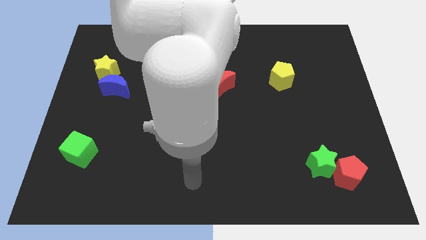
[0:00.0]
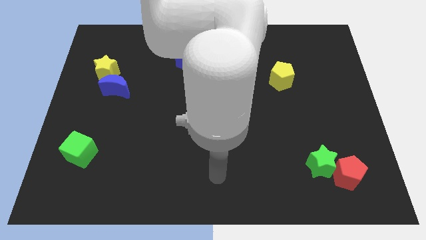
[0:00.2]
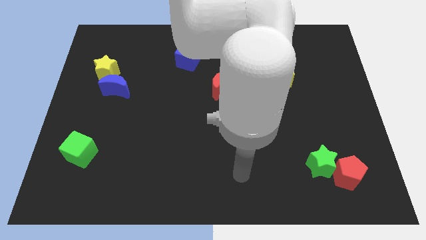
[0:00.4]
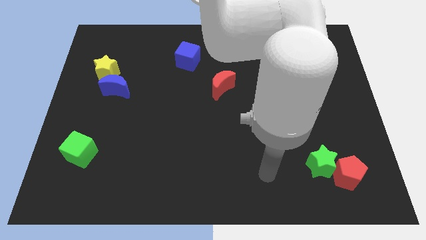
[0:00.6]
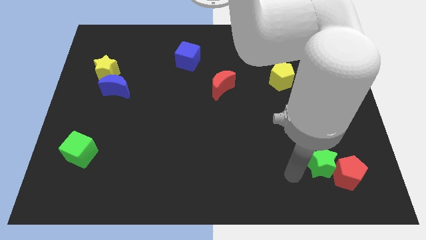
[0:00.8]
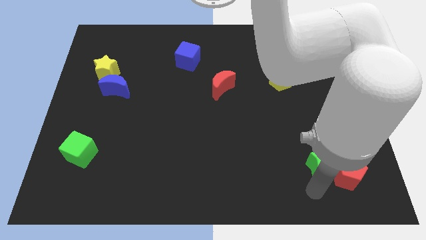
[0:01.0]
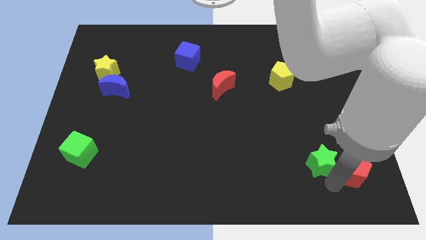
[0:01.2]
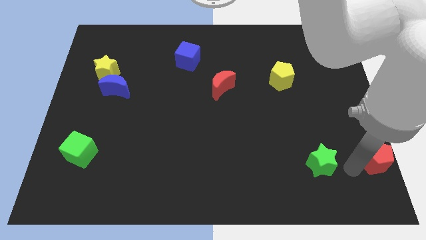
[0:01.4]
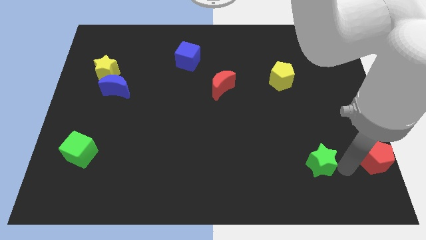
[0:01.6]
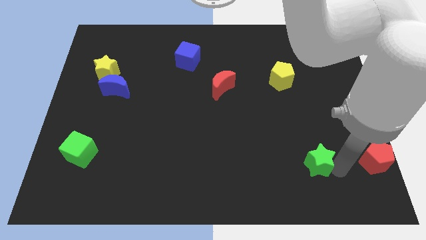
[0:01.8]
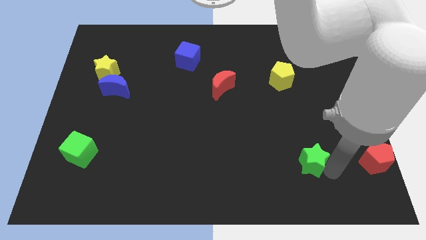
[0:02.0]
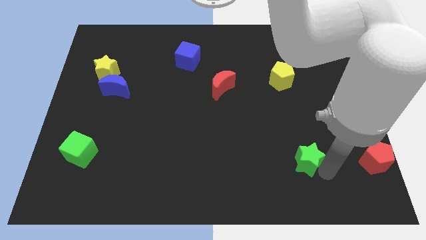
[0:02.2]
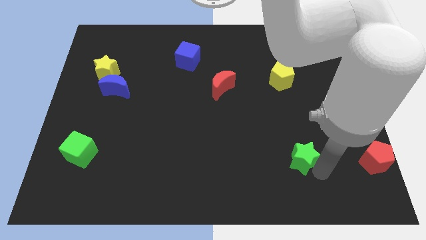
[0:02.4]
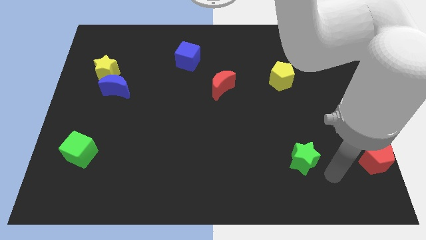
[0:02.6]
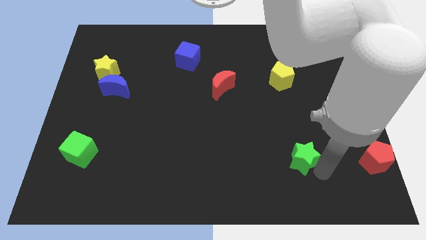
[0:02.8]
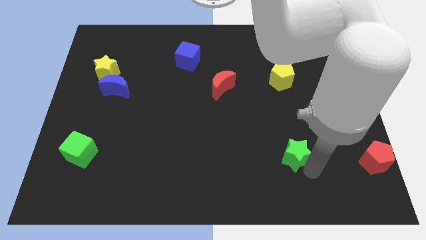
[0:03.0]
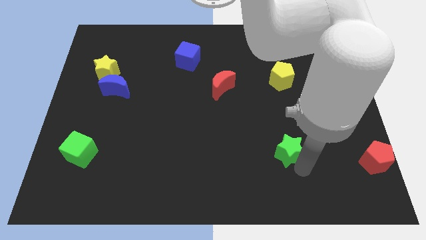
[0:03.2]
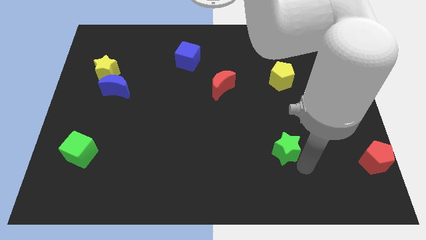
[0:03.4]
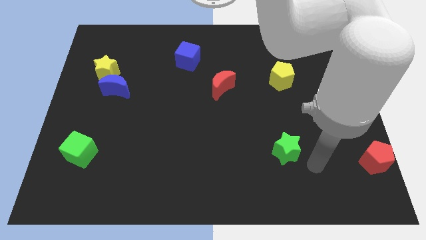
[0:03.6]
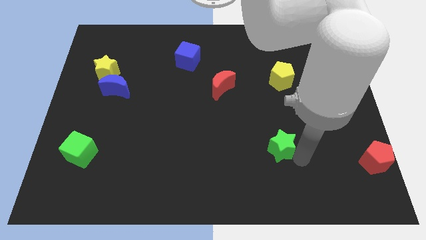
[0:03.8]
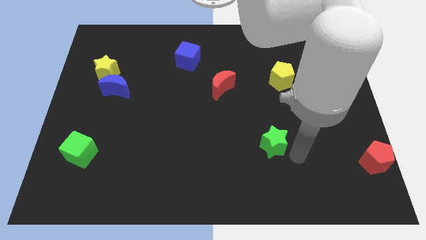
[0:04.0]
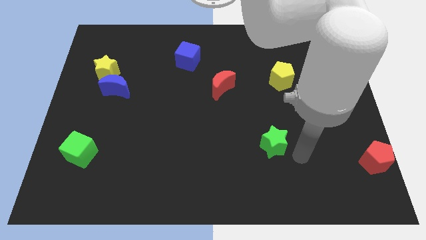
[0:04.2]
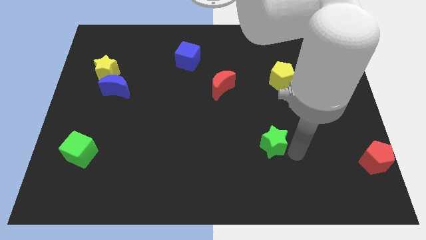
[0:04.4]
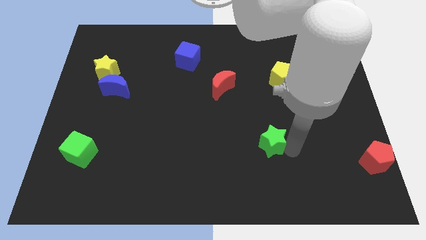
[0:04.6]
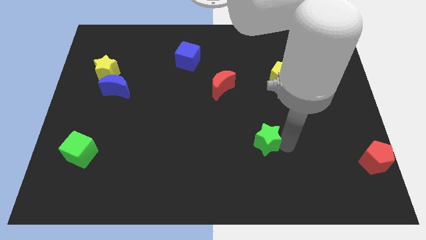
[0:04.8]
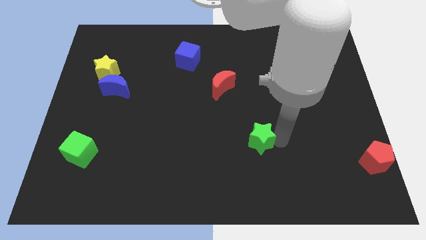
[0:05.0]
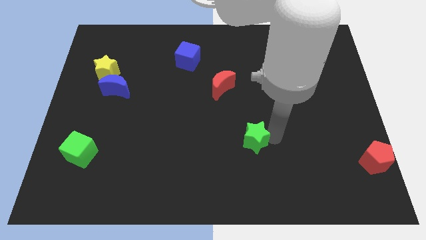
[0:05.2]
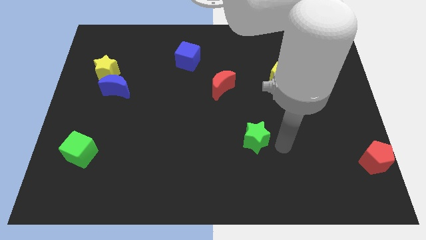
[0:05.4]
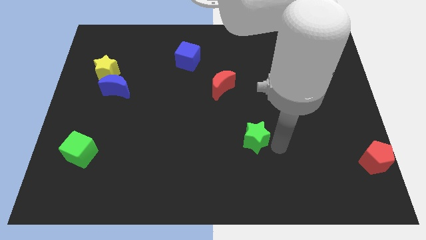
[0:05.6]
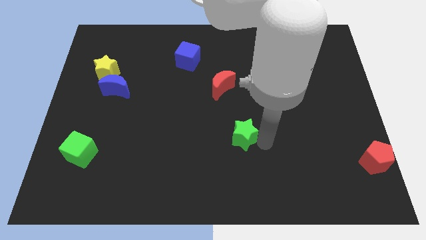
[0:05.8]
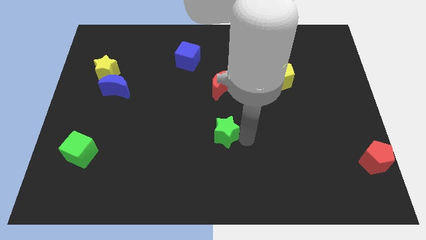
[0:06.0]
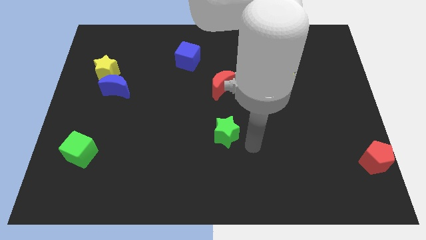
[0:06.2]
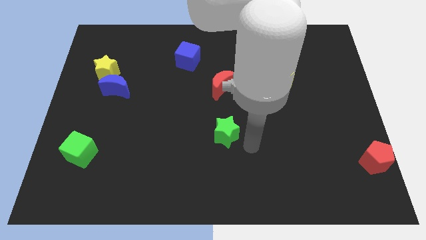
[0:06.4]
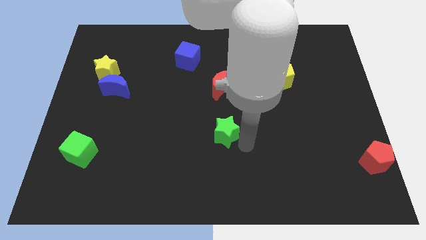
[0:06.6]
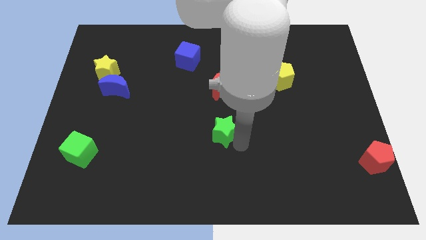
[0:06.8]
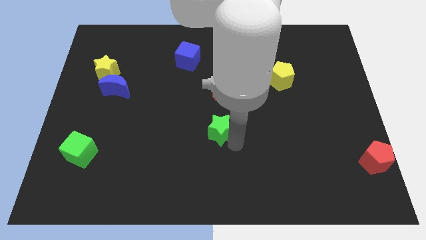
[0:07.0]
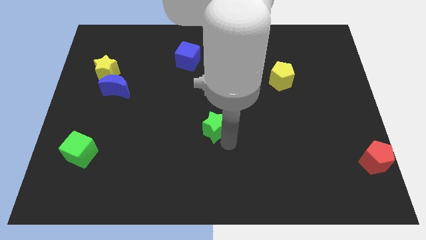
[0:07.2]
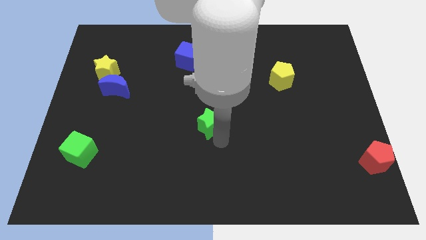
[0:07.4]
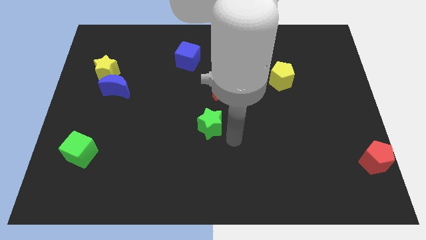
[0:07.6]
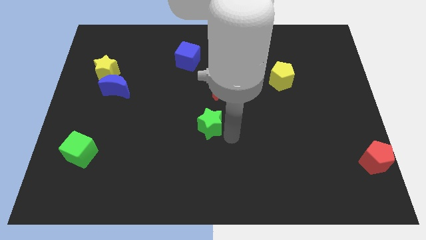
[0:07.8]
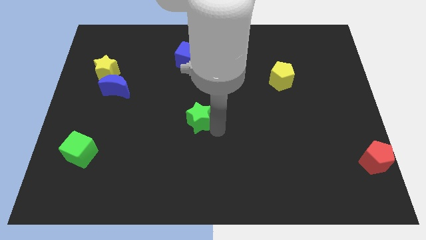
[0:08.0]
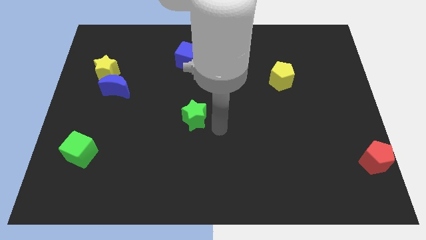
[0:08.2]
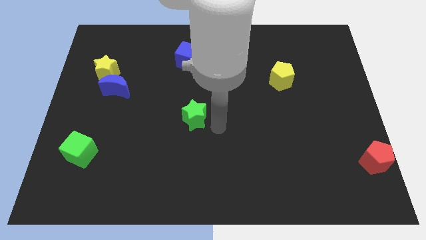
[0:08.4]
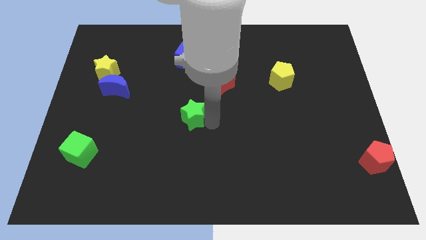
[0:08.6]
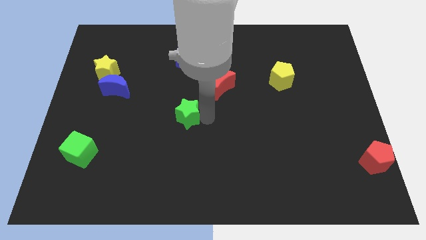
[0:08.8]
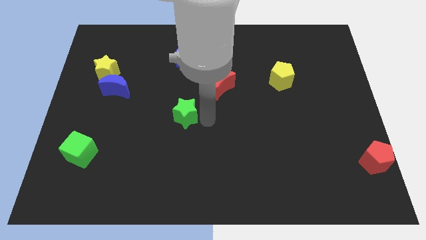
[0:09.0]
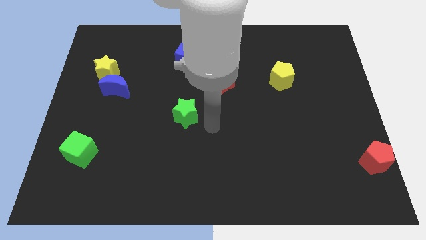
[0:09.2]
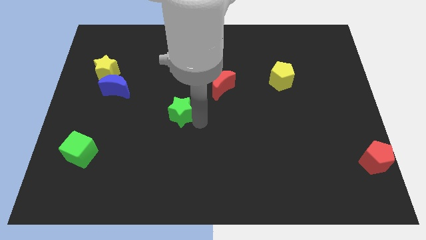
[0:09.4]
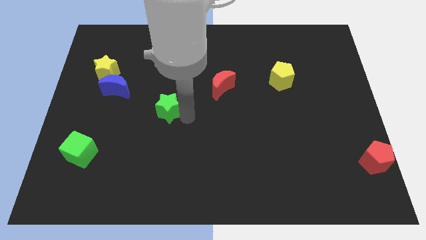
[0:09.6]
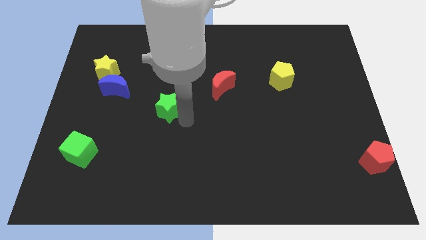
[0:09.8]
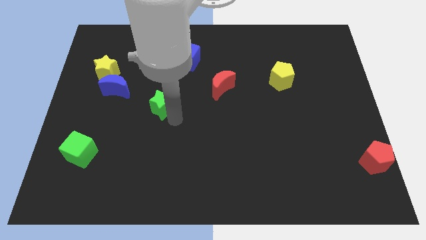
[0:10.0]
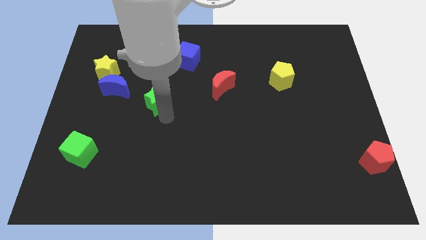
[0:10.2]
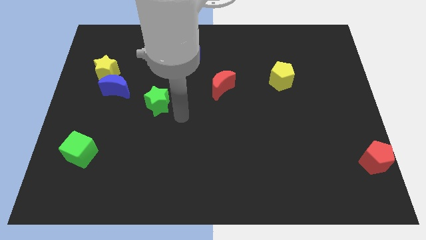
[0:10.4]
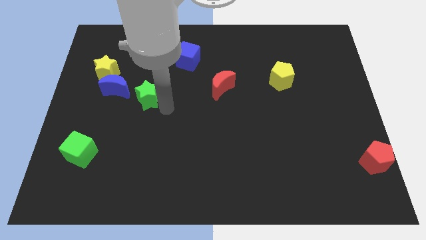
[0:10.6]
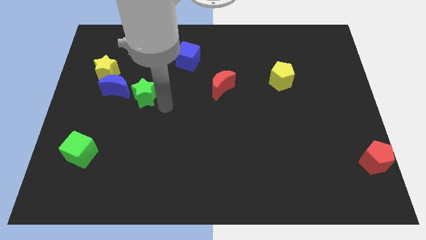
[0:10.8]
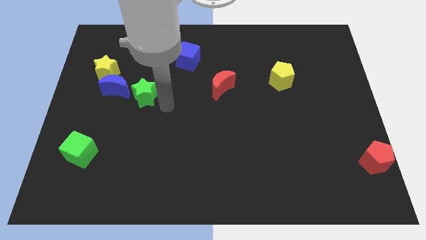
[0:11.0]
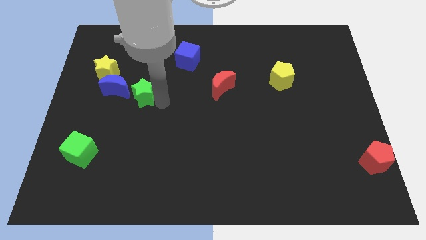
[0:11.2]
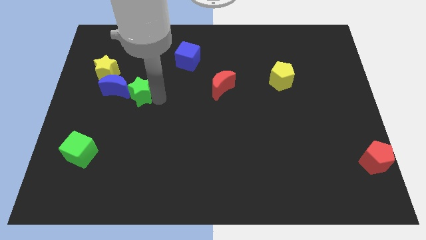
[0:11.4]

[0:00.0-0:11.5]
put the green star to the bottom right of the yellow star

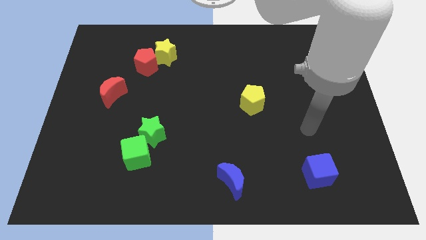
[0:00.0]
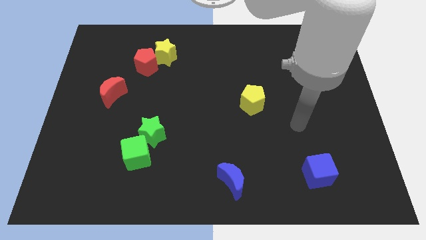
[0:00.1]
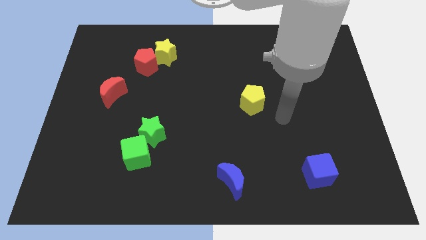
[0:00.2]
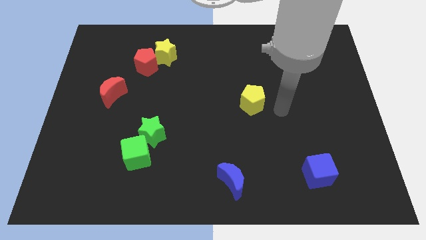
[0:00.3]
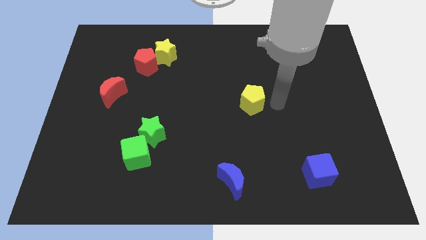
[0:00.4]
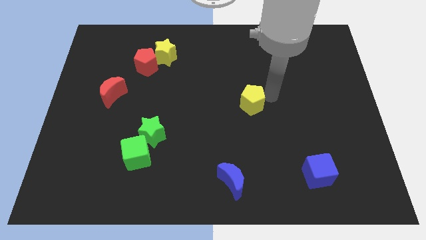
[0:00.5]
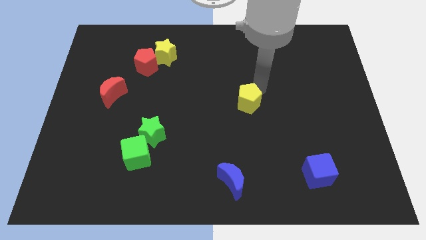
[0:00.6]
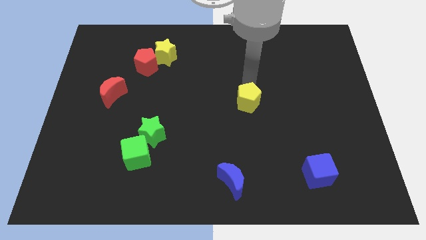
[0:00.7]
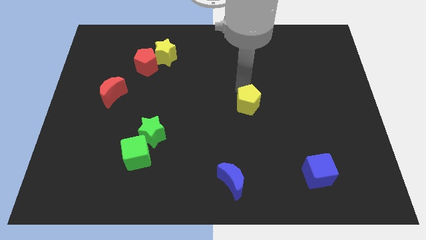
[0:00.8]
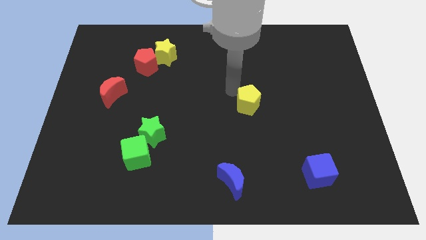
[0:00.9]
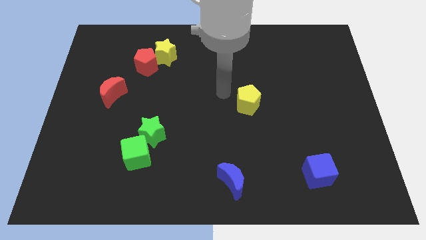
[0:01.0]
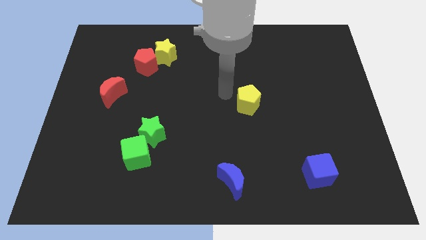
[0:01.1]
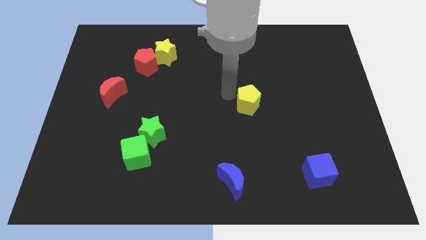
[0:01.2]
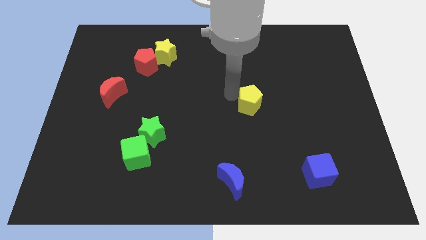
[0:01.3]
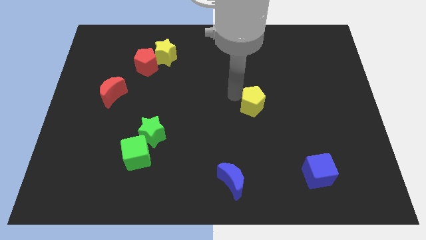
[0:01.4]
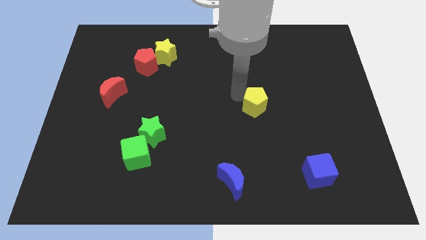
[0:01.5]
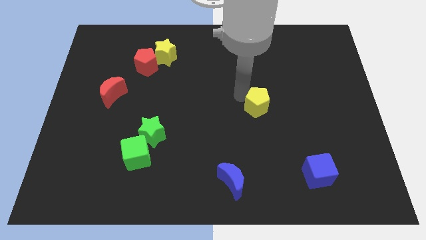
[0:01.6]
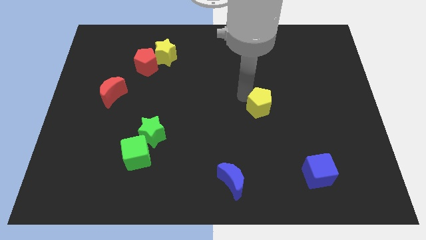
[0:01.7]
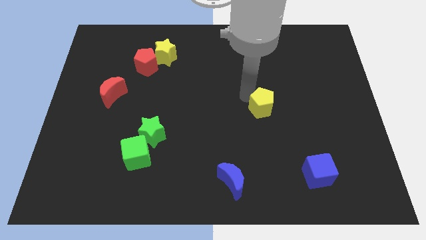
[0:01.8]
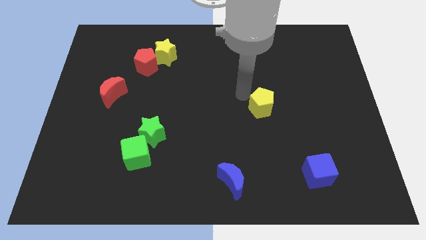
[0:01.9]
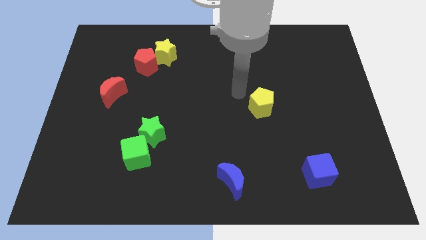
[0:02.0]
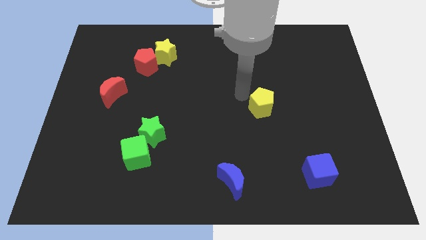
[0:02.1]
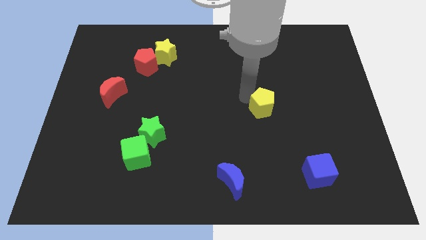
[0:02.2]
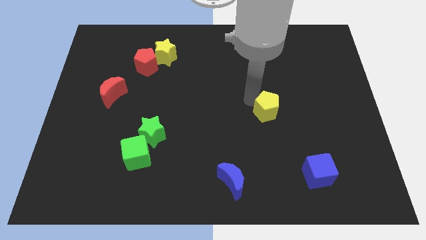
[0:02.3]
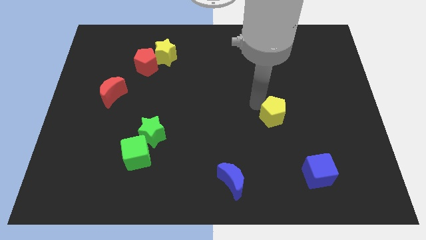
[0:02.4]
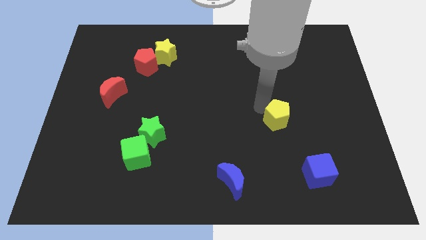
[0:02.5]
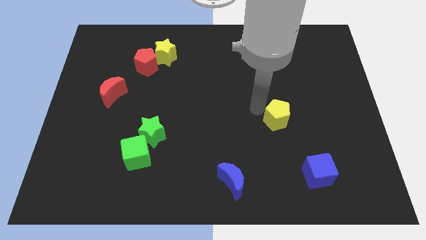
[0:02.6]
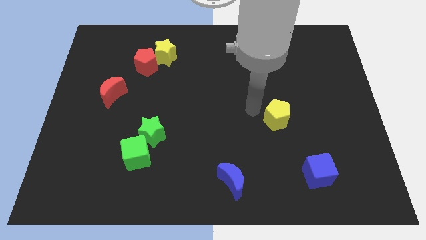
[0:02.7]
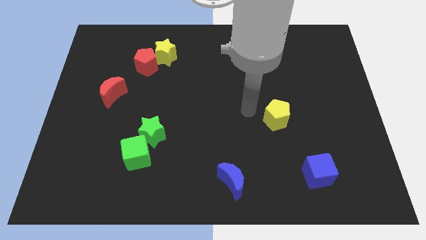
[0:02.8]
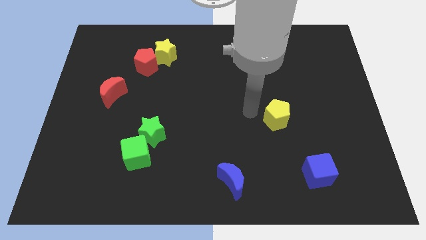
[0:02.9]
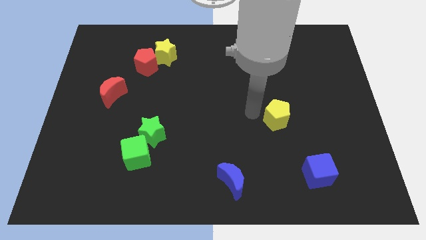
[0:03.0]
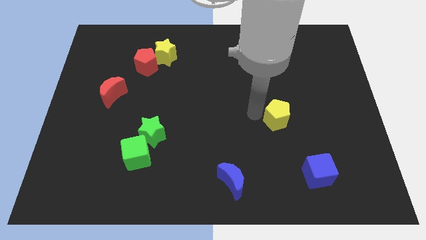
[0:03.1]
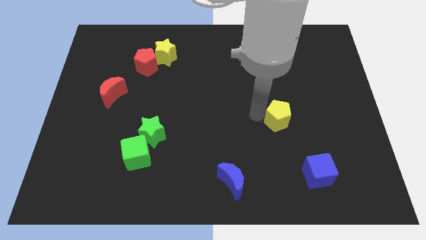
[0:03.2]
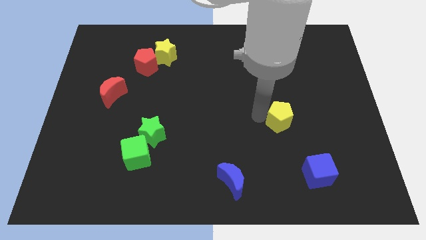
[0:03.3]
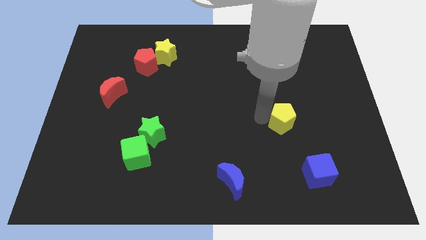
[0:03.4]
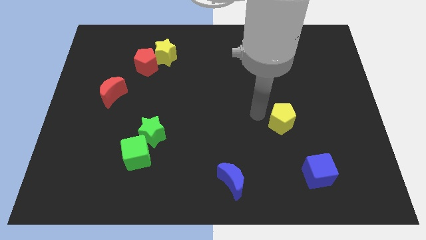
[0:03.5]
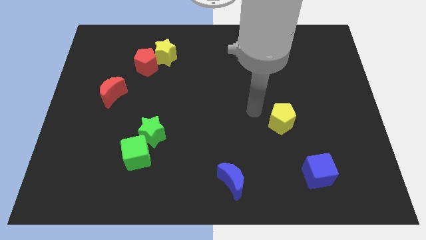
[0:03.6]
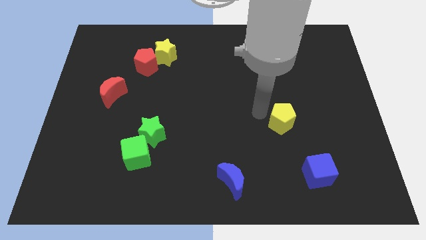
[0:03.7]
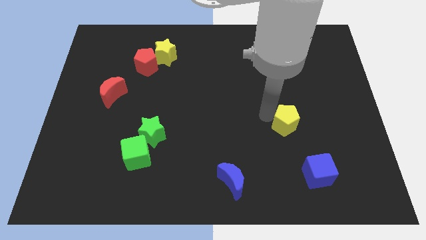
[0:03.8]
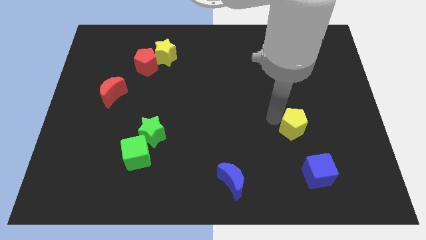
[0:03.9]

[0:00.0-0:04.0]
put the yellow pentagon above the blue cube
